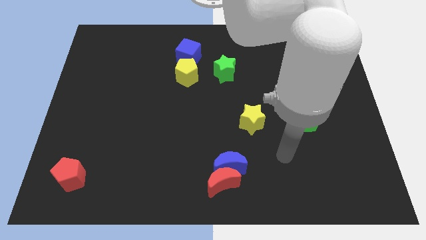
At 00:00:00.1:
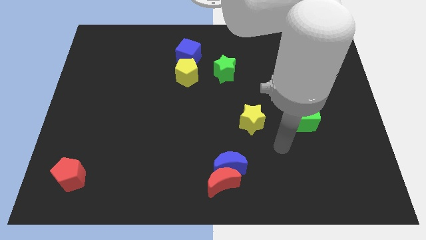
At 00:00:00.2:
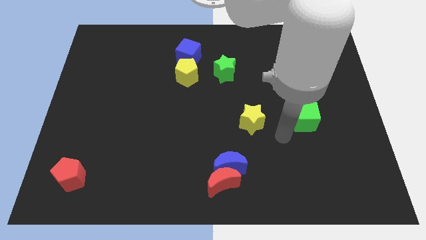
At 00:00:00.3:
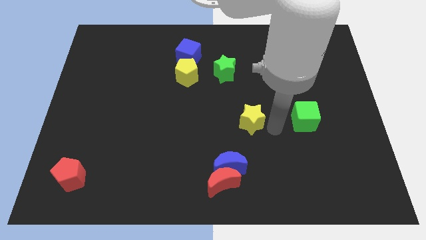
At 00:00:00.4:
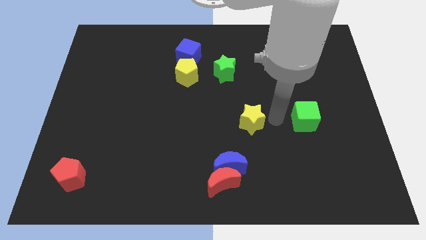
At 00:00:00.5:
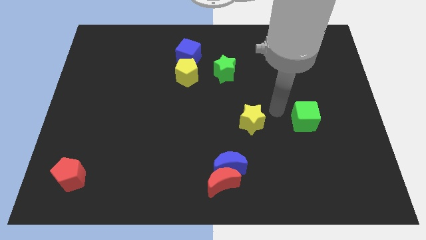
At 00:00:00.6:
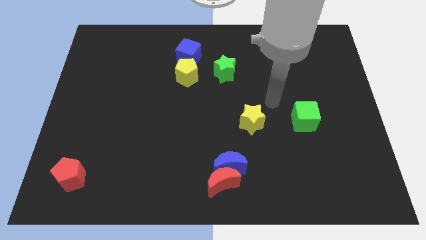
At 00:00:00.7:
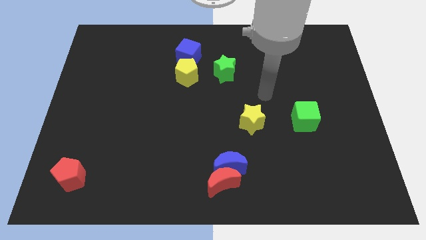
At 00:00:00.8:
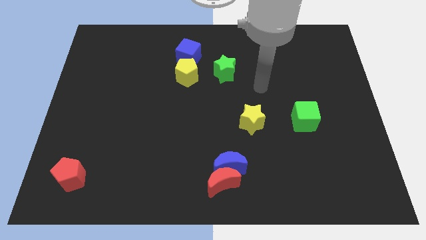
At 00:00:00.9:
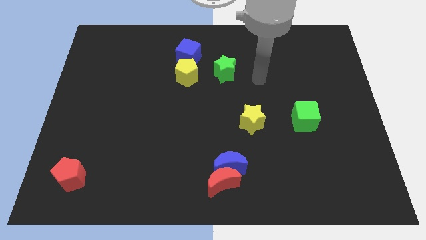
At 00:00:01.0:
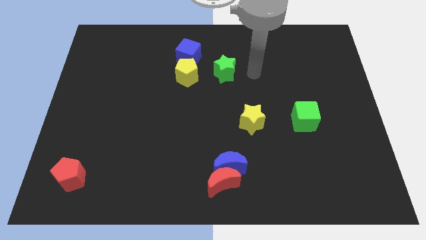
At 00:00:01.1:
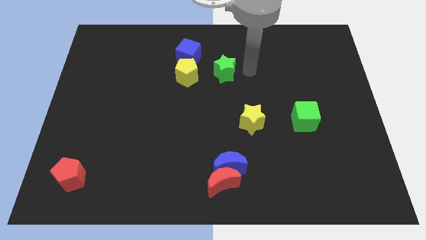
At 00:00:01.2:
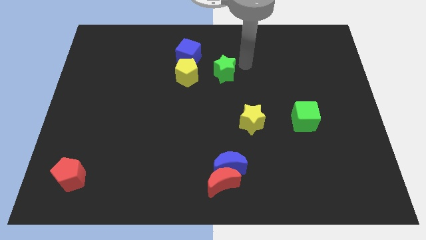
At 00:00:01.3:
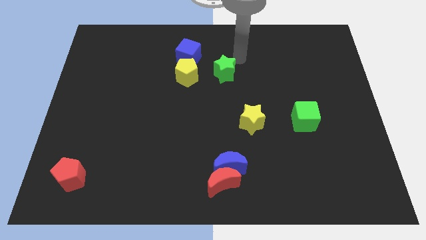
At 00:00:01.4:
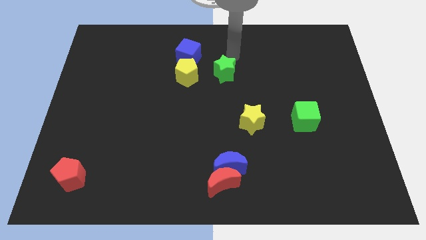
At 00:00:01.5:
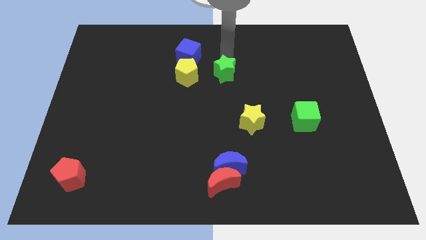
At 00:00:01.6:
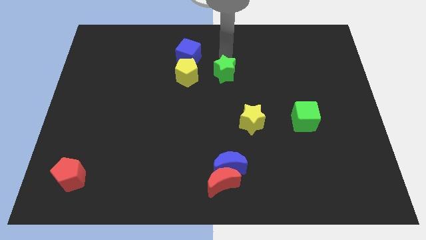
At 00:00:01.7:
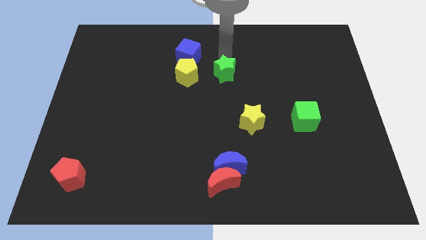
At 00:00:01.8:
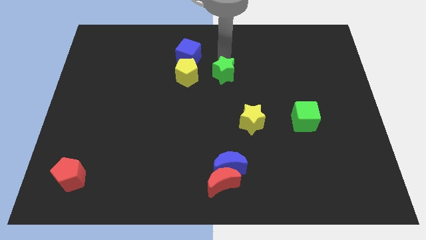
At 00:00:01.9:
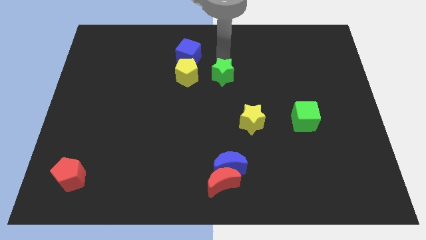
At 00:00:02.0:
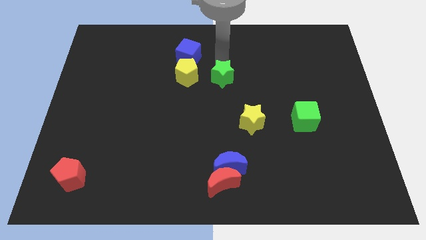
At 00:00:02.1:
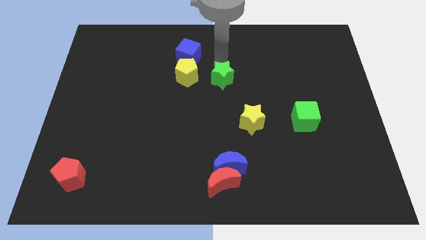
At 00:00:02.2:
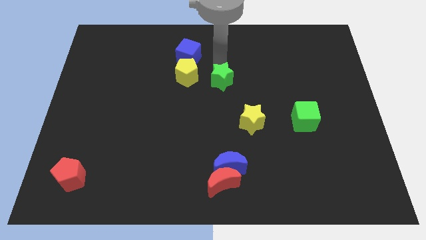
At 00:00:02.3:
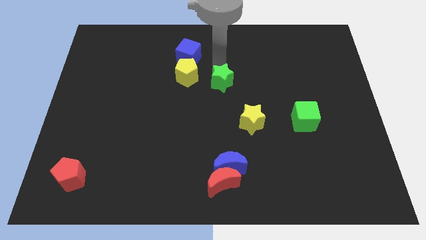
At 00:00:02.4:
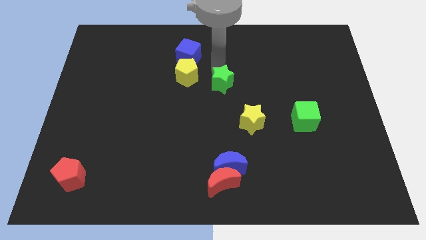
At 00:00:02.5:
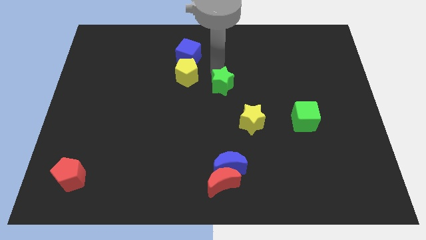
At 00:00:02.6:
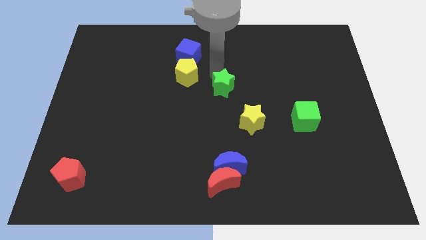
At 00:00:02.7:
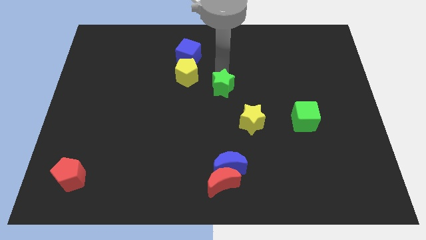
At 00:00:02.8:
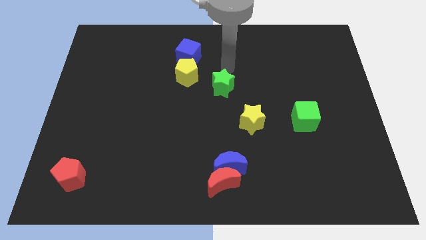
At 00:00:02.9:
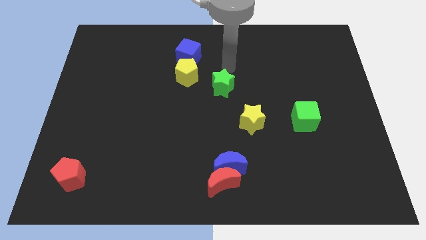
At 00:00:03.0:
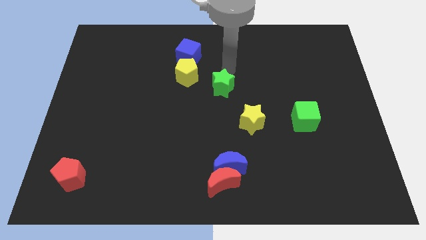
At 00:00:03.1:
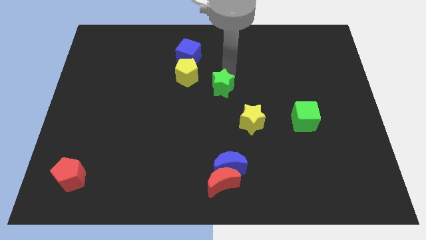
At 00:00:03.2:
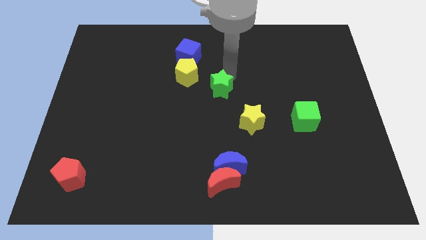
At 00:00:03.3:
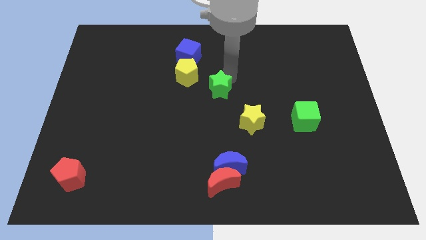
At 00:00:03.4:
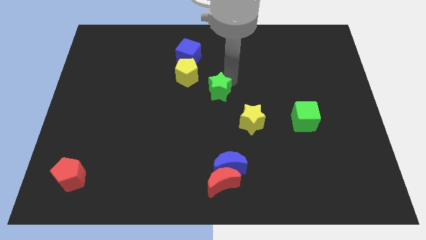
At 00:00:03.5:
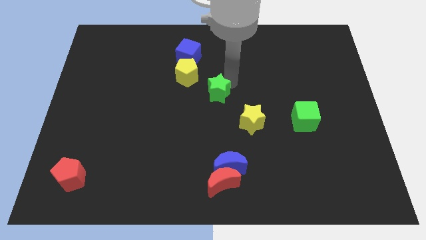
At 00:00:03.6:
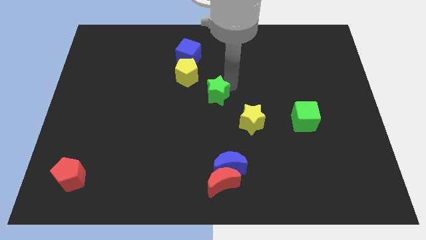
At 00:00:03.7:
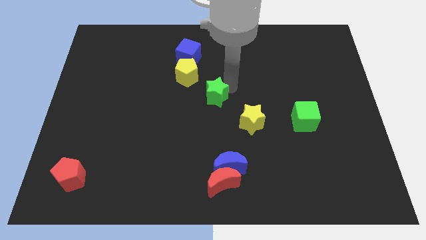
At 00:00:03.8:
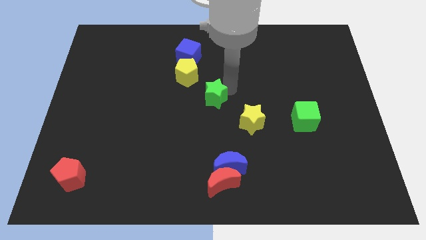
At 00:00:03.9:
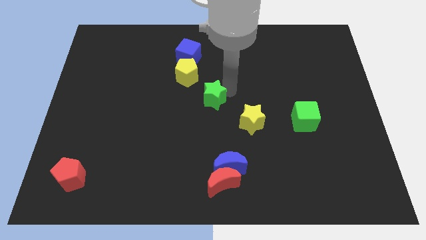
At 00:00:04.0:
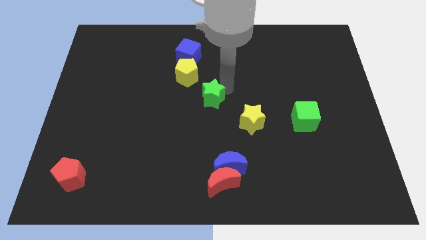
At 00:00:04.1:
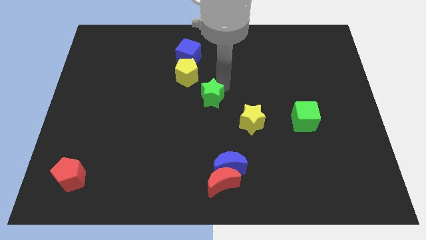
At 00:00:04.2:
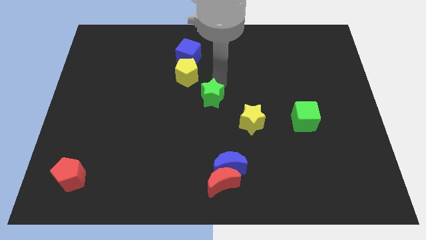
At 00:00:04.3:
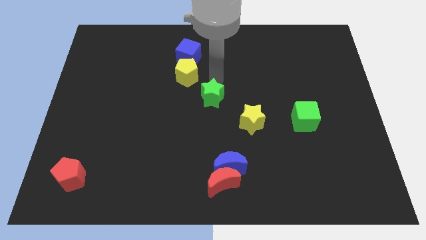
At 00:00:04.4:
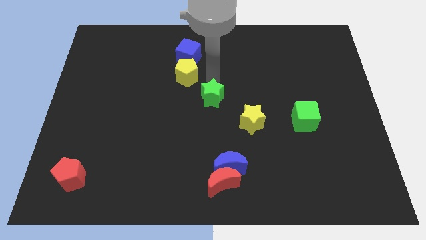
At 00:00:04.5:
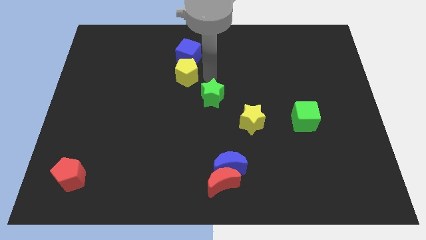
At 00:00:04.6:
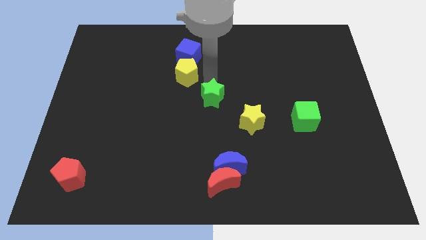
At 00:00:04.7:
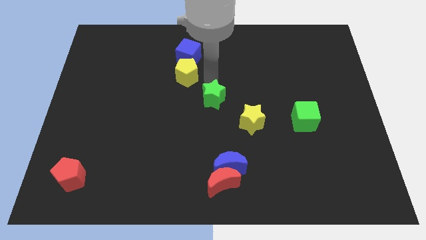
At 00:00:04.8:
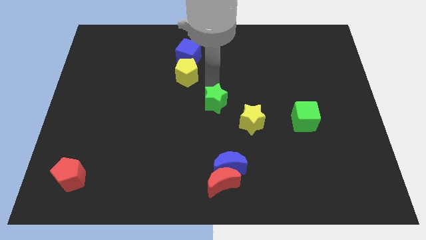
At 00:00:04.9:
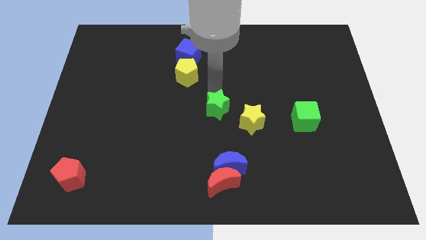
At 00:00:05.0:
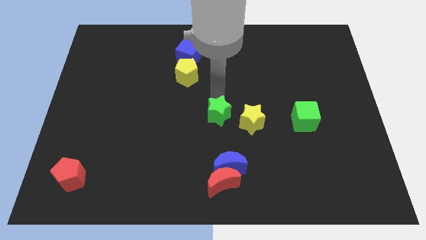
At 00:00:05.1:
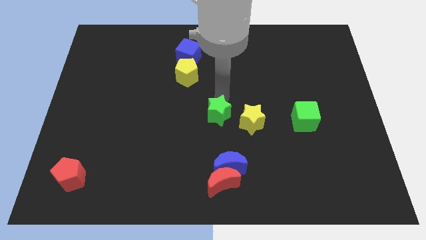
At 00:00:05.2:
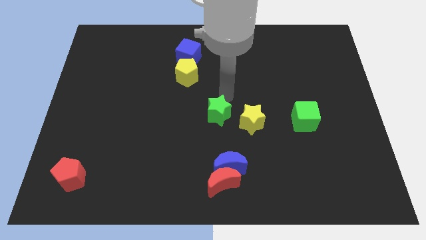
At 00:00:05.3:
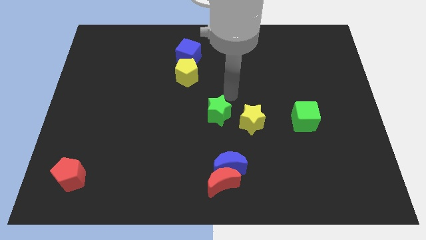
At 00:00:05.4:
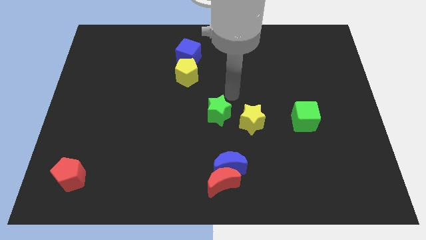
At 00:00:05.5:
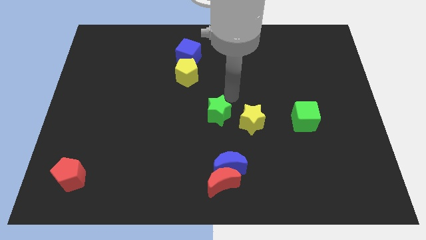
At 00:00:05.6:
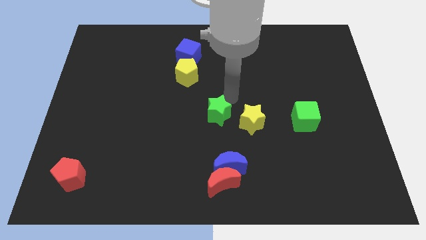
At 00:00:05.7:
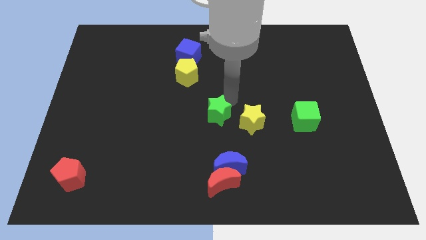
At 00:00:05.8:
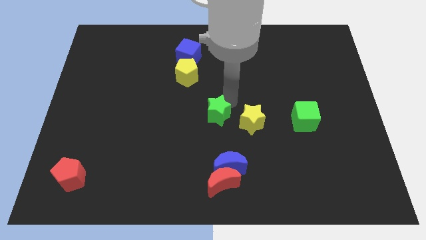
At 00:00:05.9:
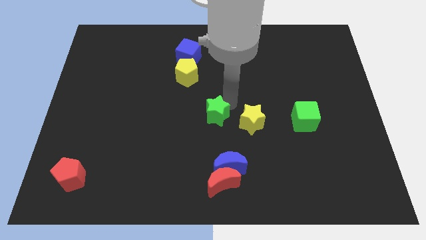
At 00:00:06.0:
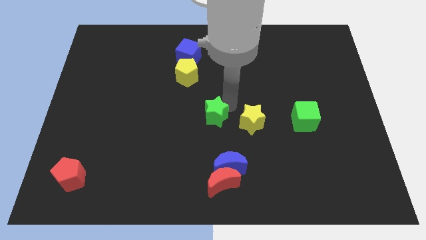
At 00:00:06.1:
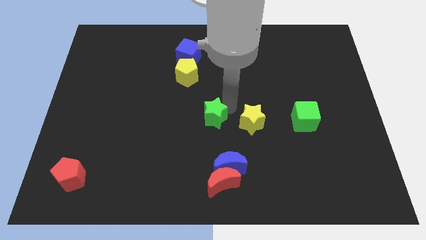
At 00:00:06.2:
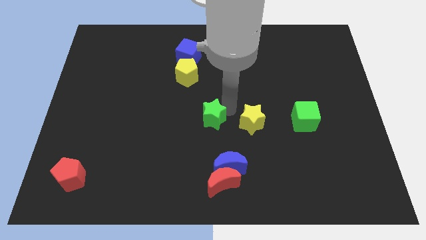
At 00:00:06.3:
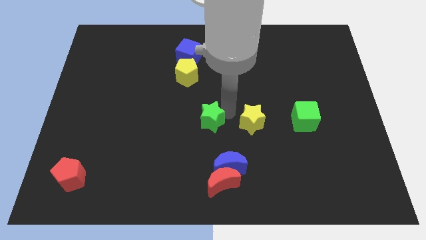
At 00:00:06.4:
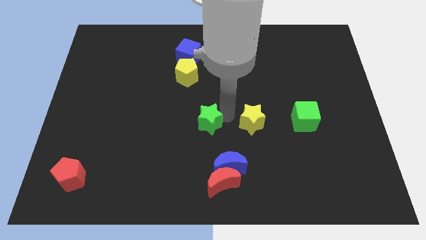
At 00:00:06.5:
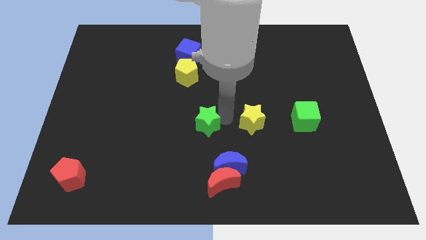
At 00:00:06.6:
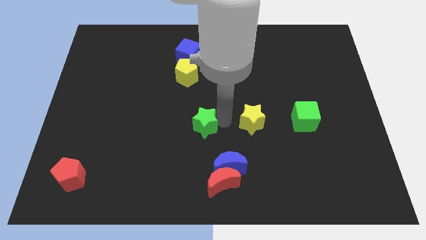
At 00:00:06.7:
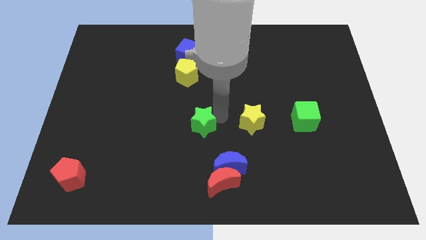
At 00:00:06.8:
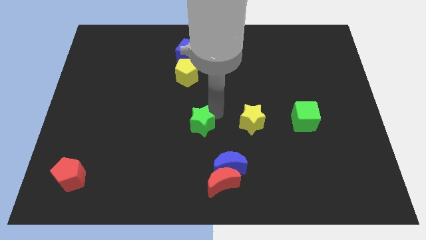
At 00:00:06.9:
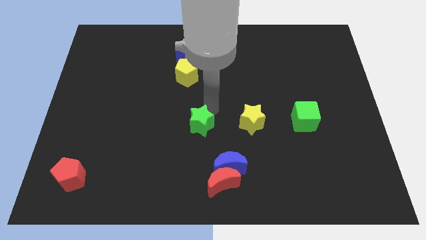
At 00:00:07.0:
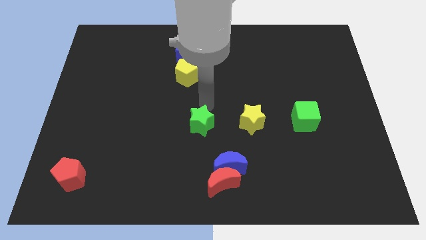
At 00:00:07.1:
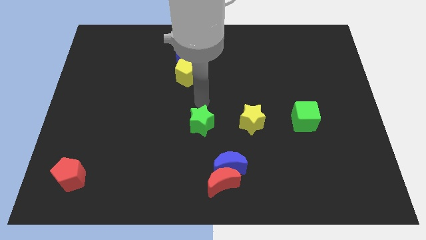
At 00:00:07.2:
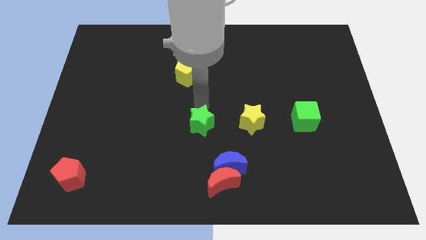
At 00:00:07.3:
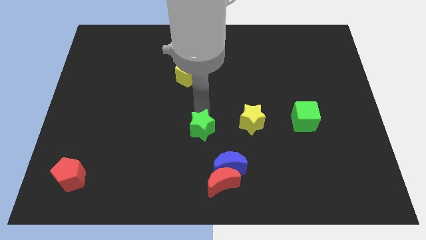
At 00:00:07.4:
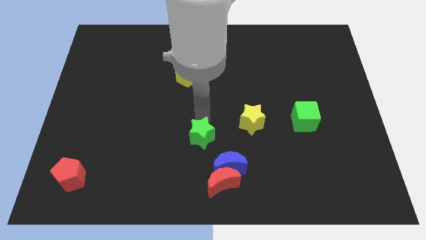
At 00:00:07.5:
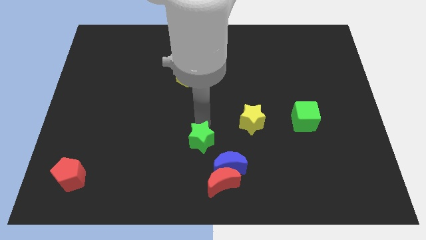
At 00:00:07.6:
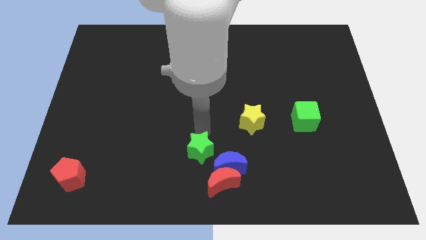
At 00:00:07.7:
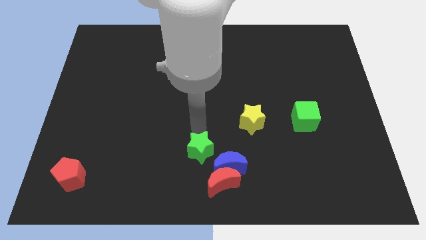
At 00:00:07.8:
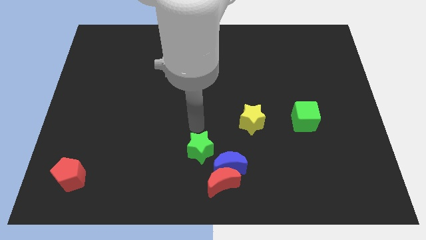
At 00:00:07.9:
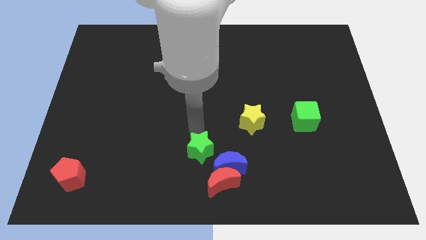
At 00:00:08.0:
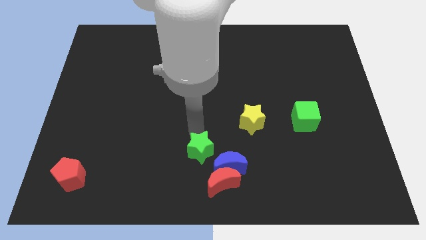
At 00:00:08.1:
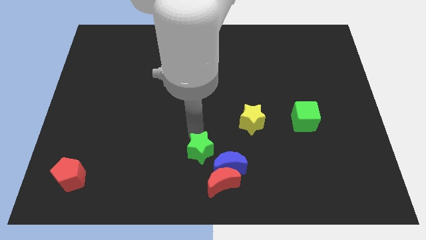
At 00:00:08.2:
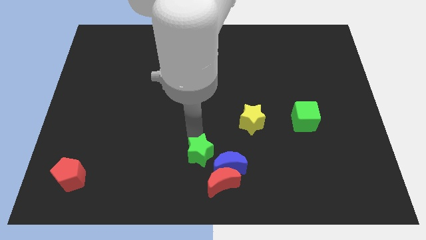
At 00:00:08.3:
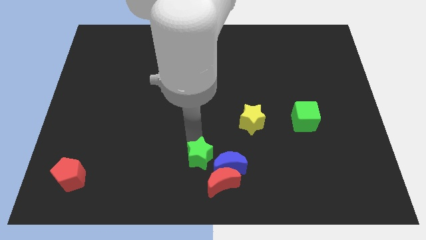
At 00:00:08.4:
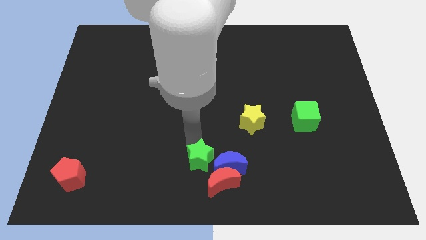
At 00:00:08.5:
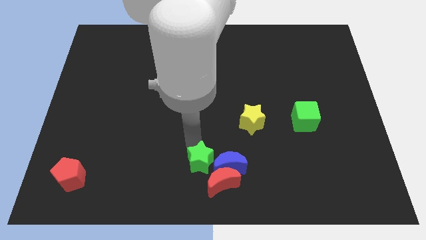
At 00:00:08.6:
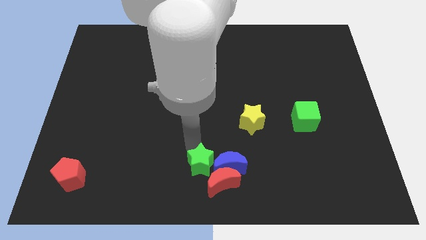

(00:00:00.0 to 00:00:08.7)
put the green star to the red moon
